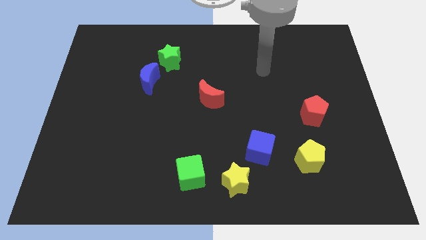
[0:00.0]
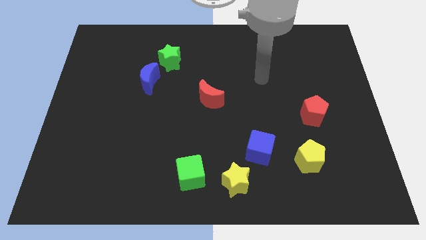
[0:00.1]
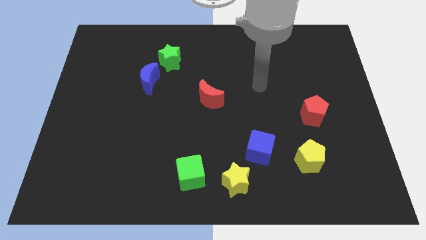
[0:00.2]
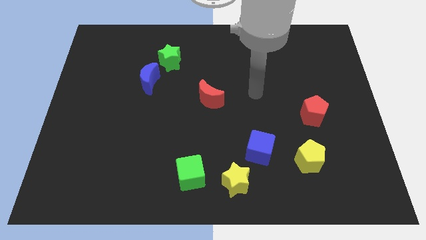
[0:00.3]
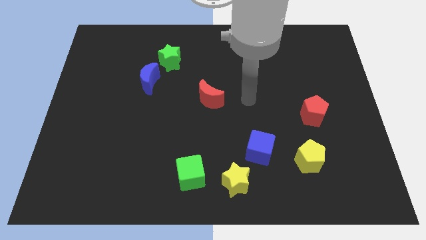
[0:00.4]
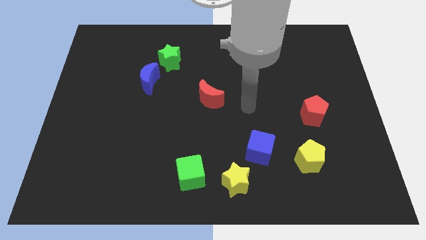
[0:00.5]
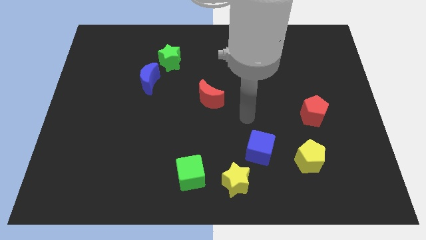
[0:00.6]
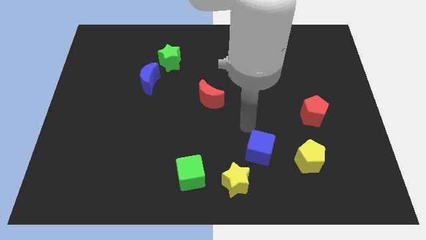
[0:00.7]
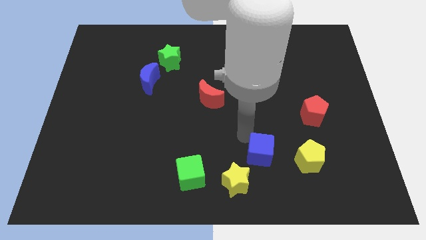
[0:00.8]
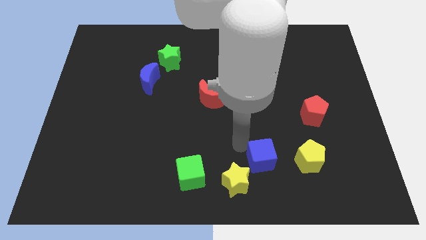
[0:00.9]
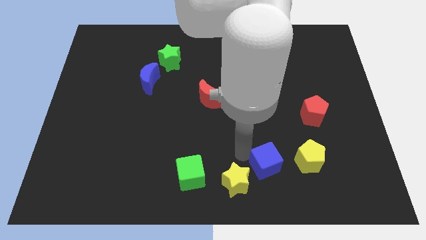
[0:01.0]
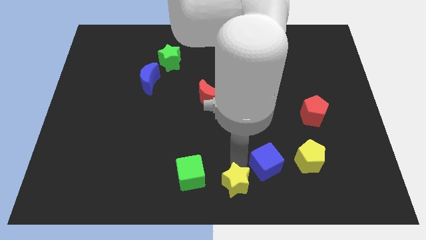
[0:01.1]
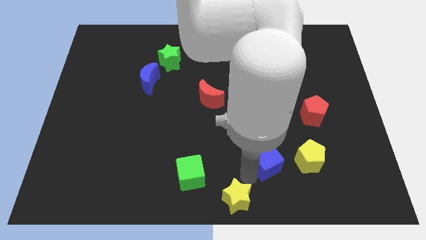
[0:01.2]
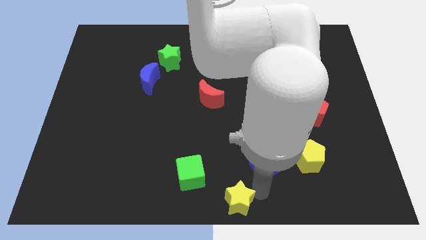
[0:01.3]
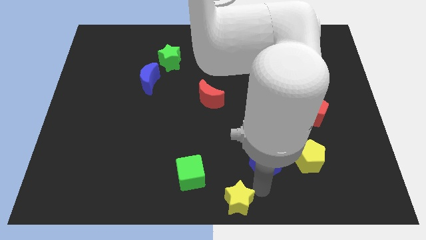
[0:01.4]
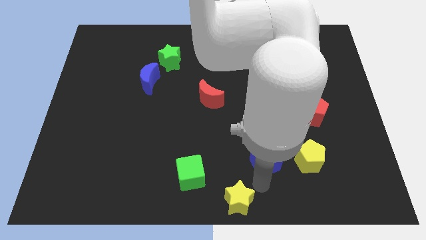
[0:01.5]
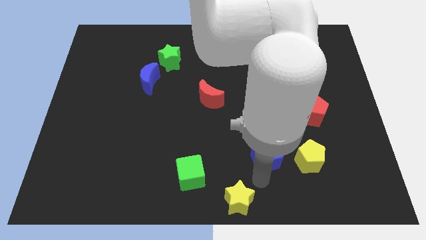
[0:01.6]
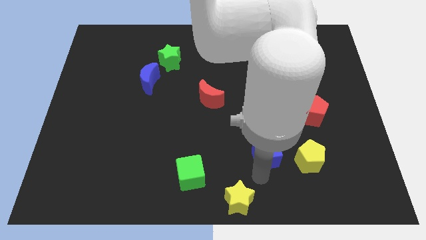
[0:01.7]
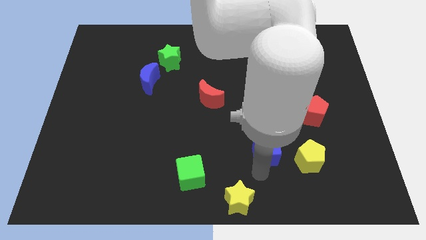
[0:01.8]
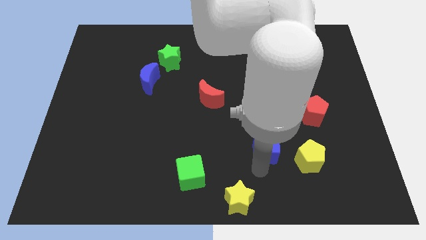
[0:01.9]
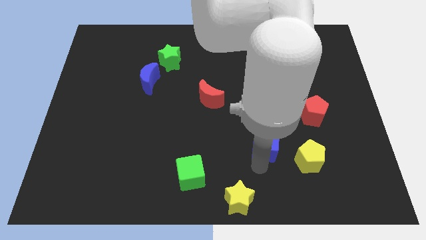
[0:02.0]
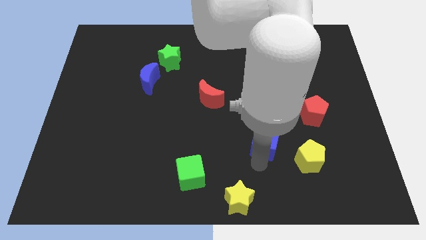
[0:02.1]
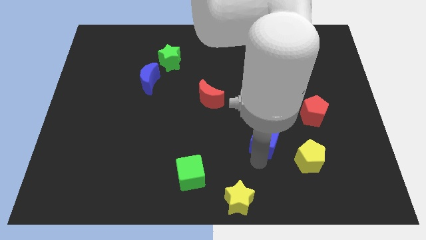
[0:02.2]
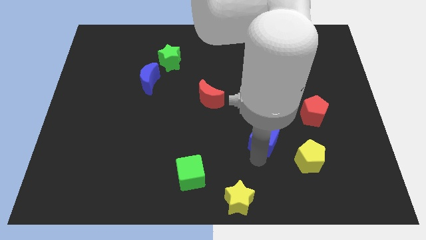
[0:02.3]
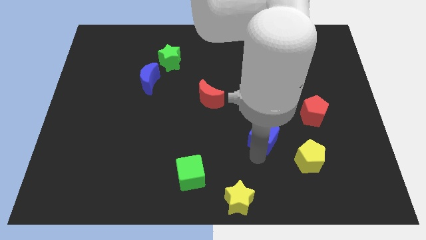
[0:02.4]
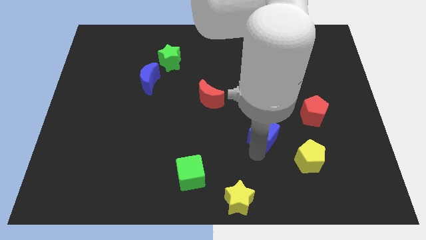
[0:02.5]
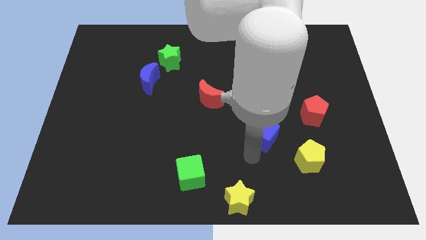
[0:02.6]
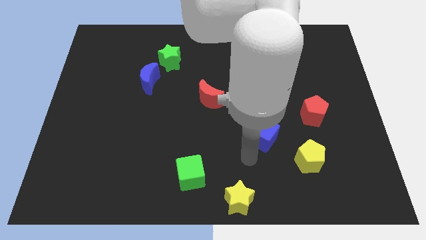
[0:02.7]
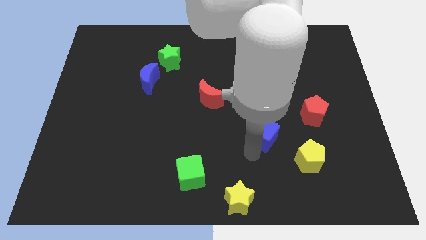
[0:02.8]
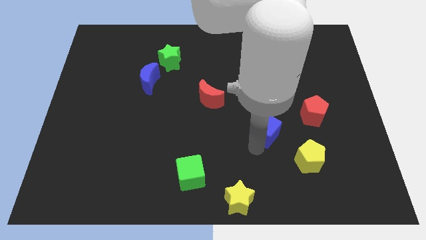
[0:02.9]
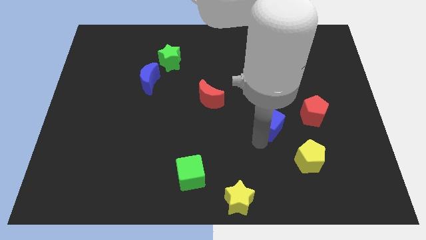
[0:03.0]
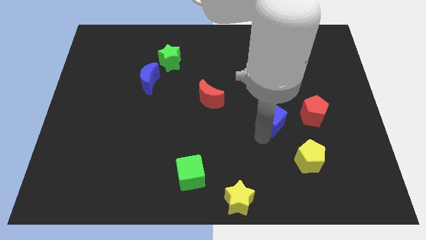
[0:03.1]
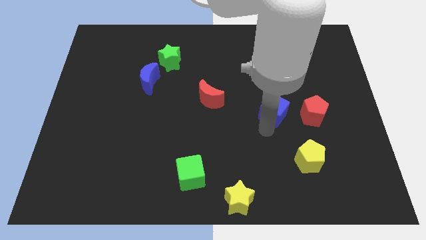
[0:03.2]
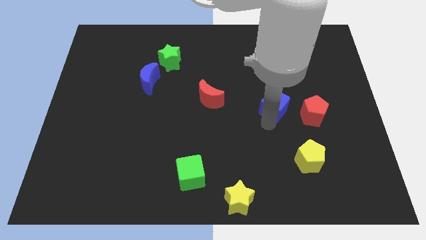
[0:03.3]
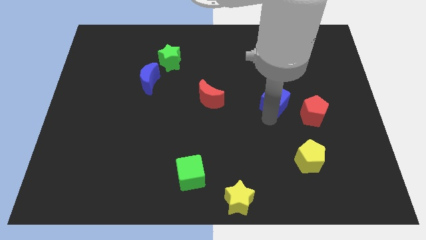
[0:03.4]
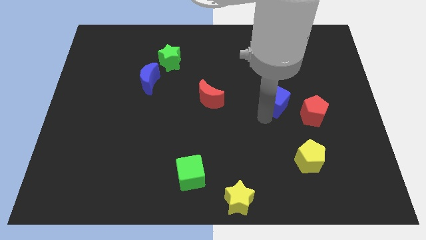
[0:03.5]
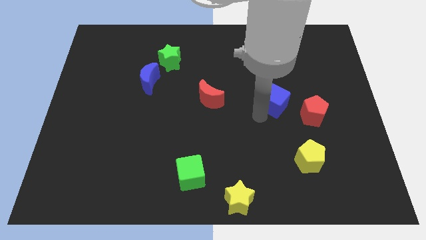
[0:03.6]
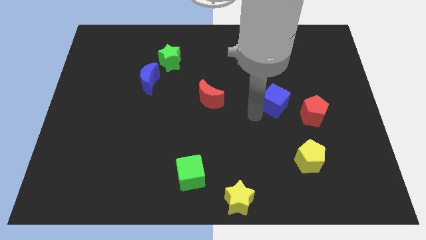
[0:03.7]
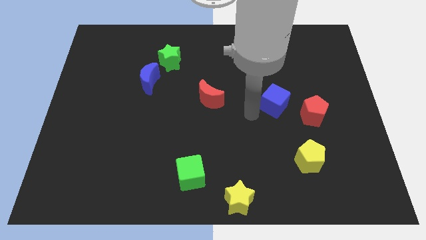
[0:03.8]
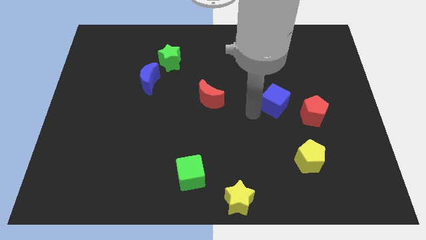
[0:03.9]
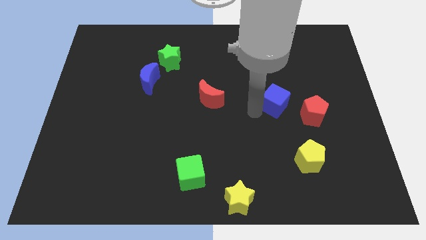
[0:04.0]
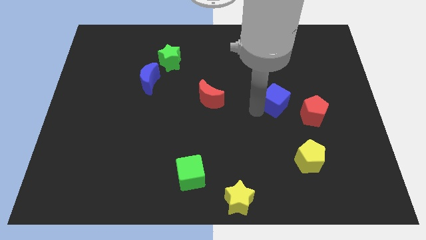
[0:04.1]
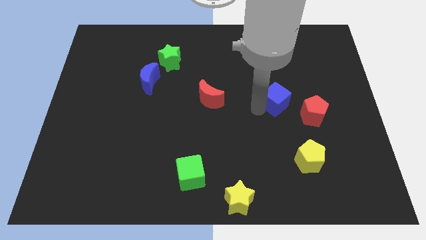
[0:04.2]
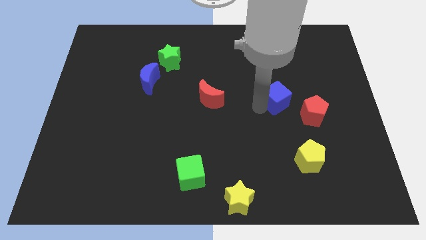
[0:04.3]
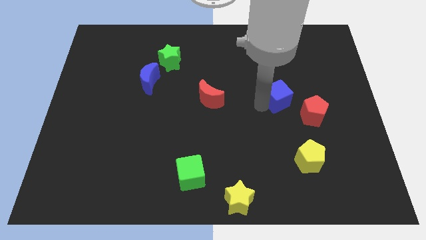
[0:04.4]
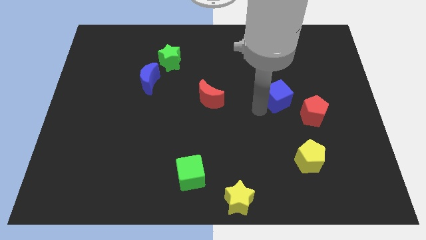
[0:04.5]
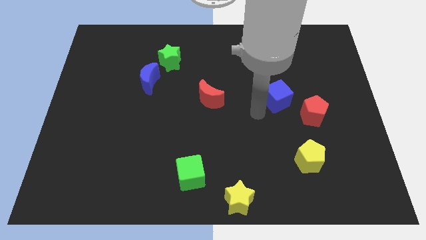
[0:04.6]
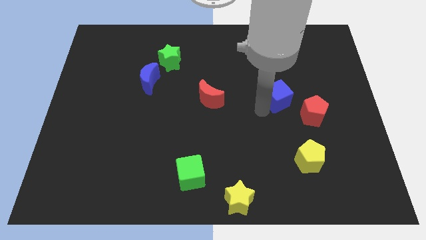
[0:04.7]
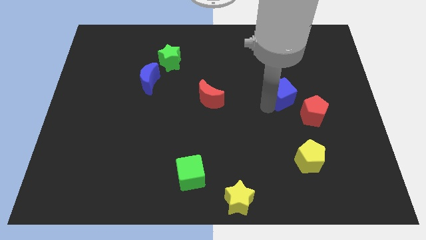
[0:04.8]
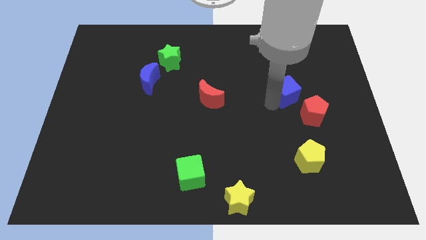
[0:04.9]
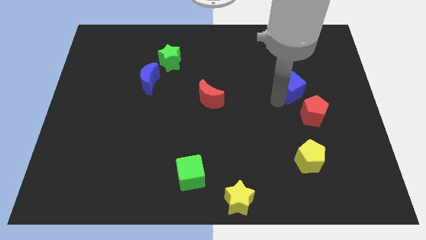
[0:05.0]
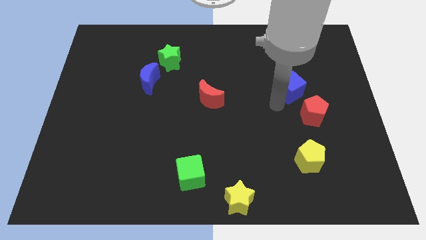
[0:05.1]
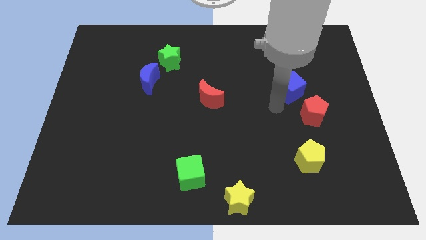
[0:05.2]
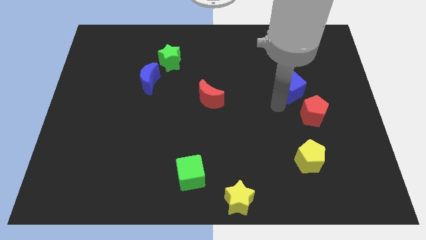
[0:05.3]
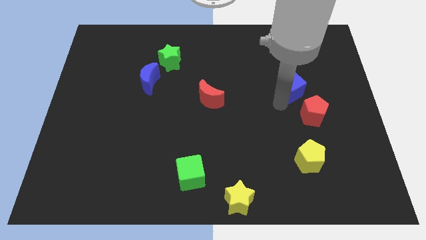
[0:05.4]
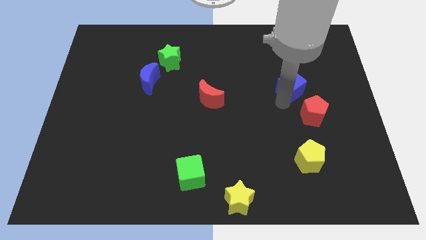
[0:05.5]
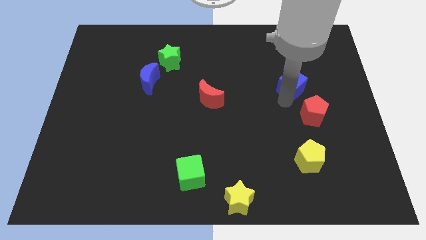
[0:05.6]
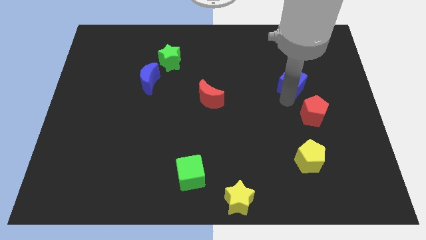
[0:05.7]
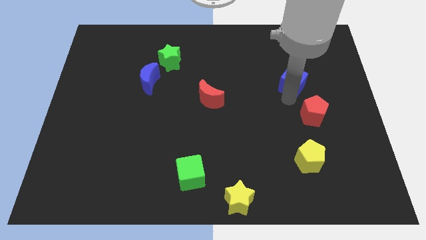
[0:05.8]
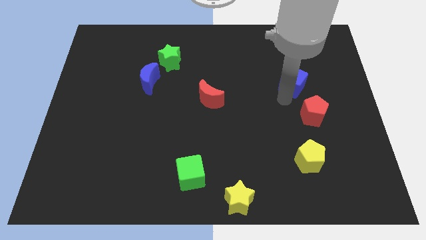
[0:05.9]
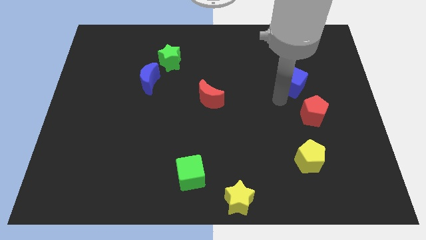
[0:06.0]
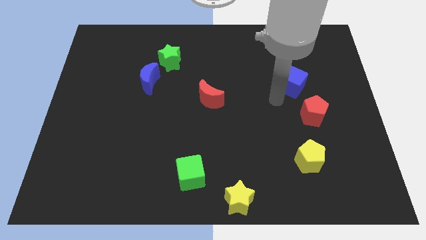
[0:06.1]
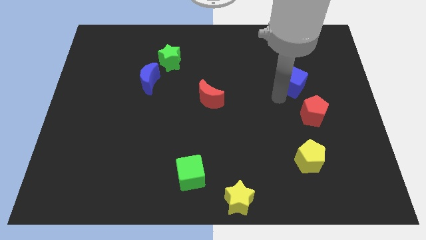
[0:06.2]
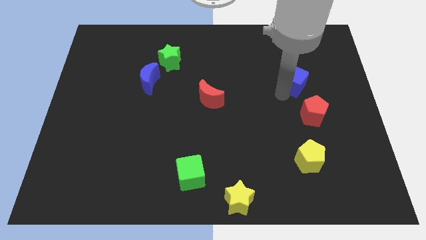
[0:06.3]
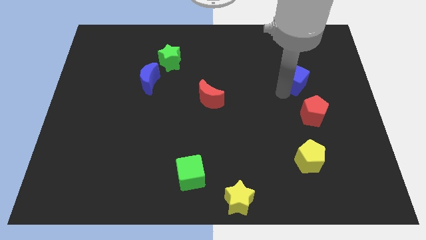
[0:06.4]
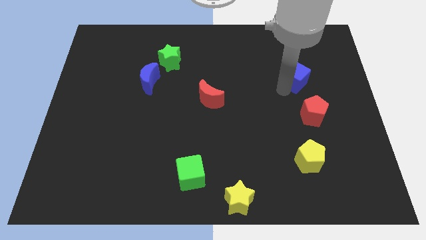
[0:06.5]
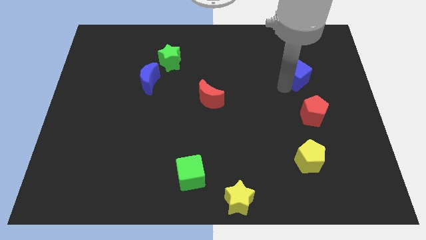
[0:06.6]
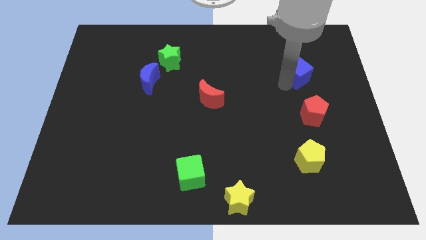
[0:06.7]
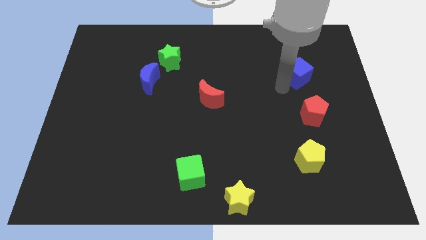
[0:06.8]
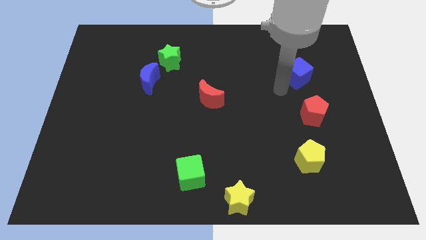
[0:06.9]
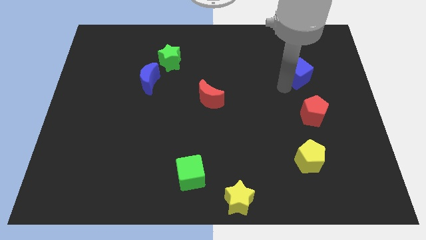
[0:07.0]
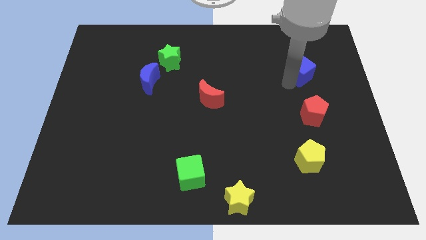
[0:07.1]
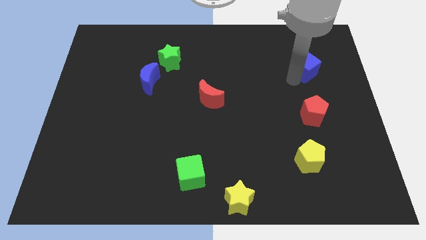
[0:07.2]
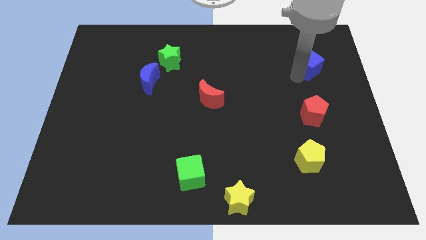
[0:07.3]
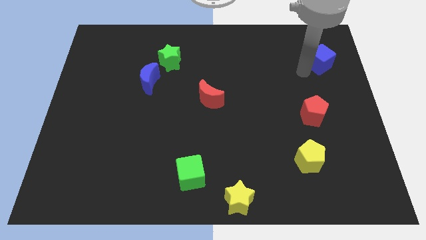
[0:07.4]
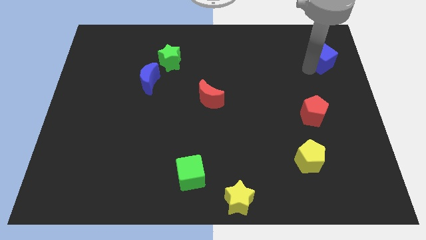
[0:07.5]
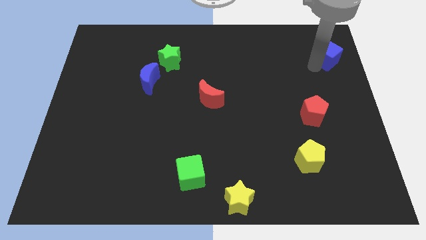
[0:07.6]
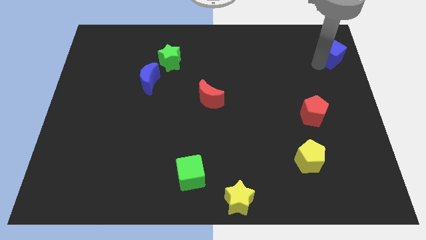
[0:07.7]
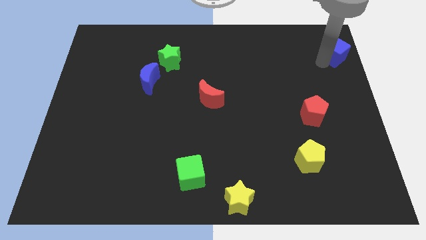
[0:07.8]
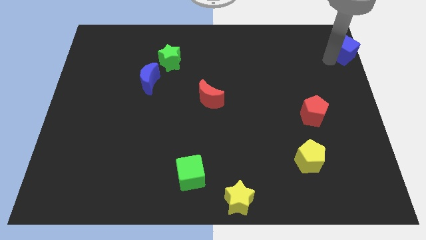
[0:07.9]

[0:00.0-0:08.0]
move the blue cube to the upper right corner
